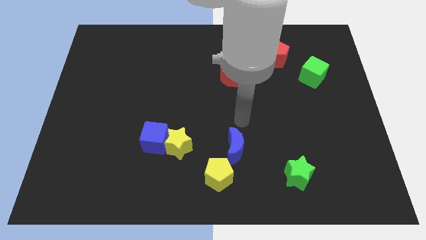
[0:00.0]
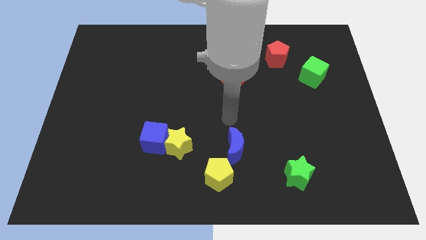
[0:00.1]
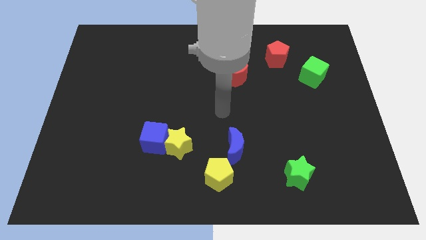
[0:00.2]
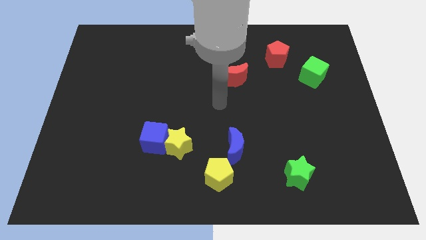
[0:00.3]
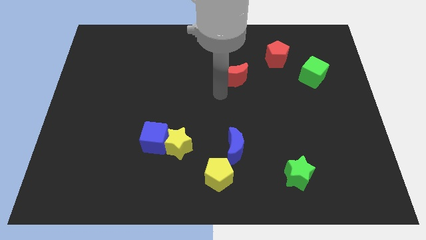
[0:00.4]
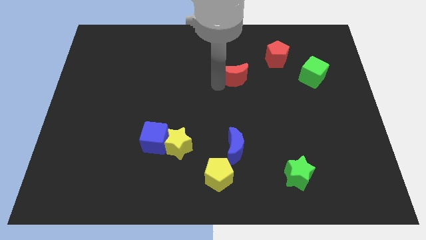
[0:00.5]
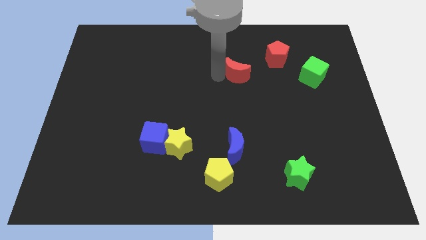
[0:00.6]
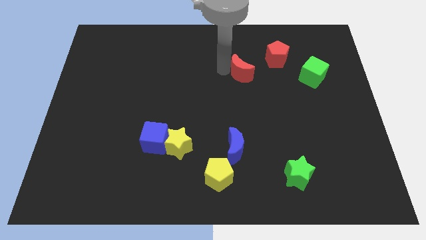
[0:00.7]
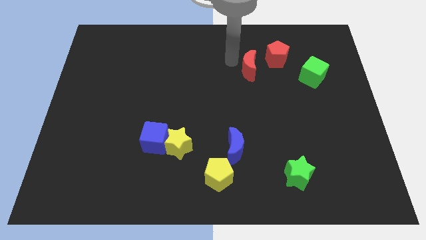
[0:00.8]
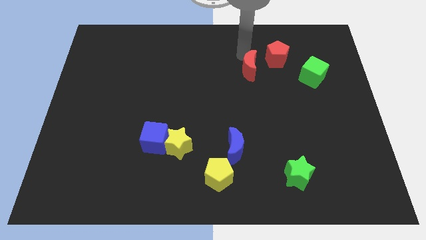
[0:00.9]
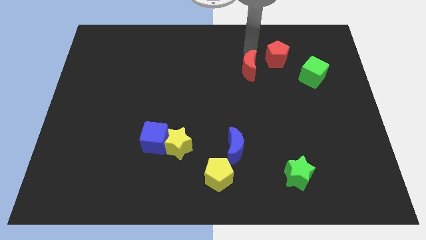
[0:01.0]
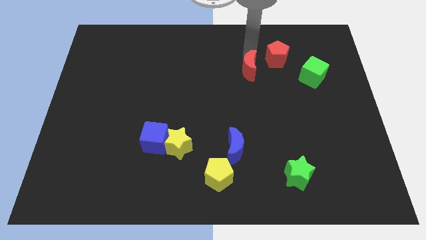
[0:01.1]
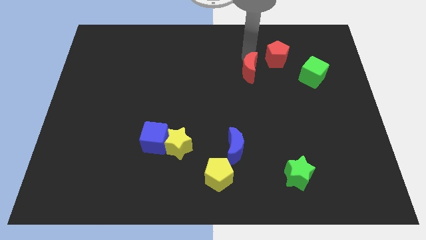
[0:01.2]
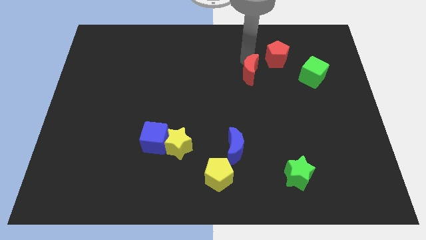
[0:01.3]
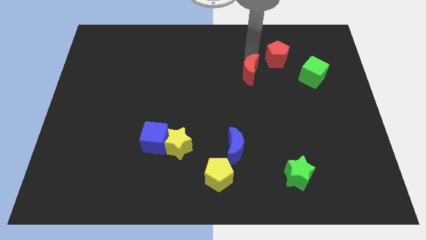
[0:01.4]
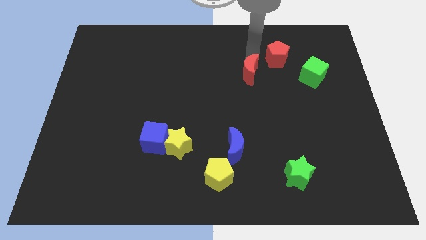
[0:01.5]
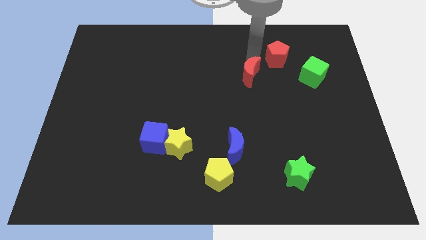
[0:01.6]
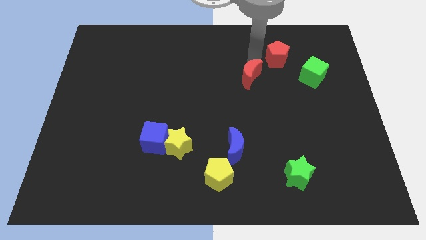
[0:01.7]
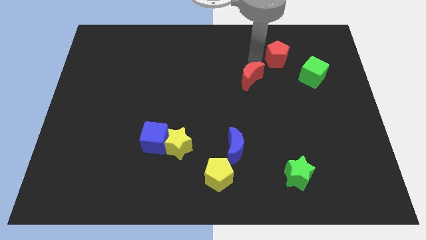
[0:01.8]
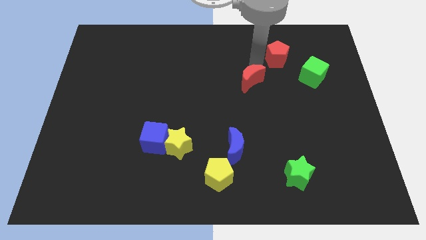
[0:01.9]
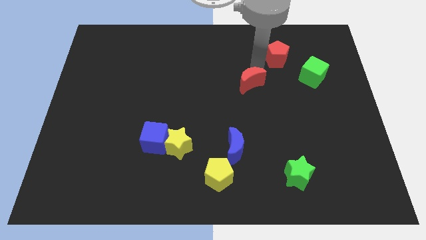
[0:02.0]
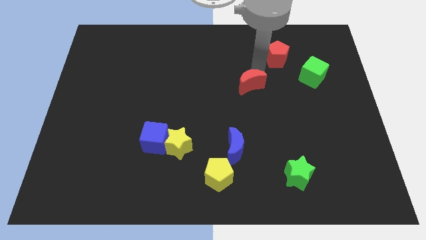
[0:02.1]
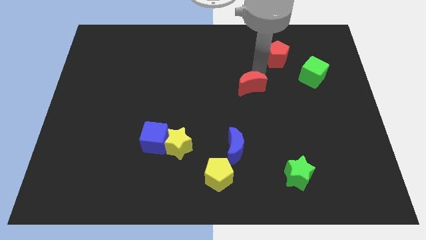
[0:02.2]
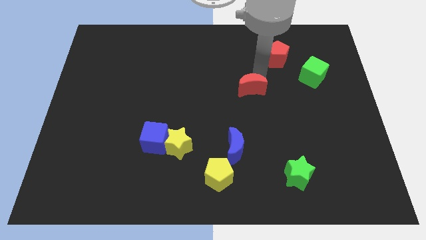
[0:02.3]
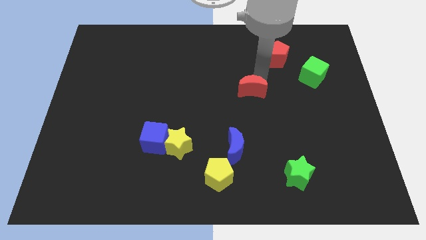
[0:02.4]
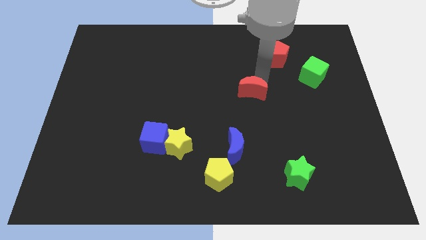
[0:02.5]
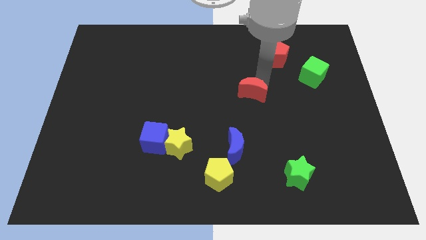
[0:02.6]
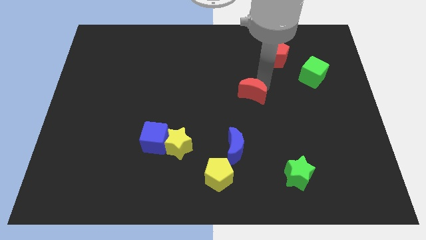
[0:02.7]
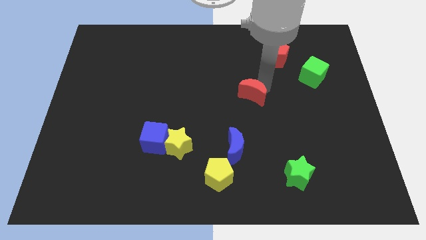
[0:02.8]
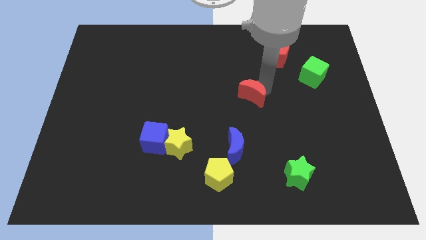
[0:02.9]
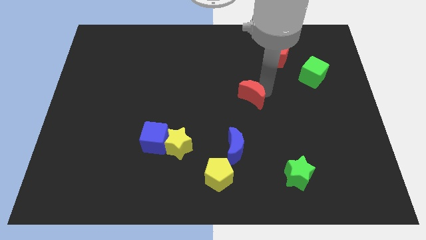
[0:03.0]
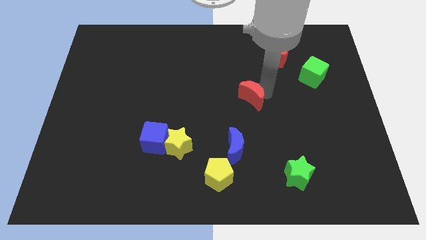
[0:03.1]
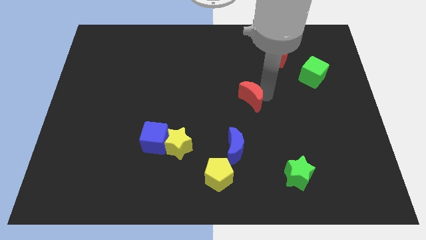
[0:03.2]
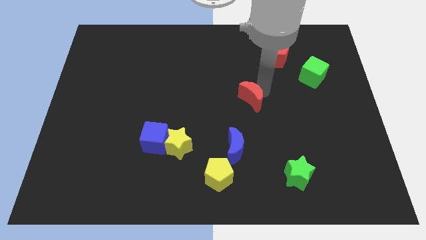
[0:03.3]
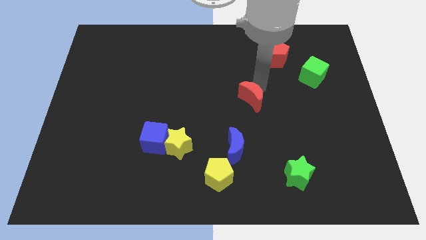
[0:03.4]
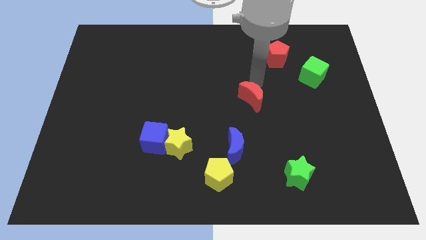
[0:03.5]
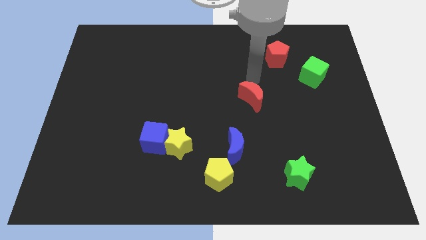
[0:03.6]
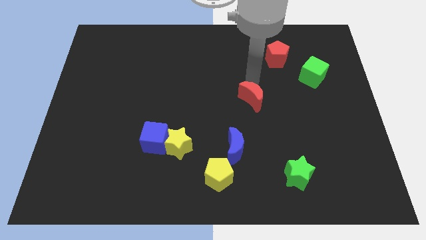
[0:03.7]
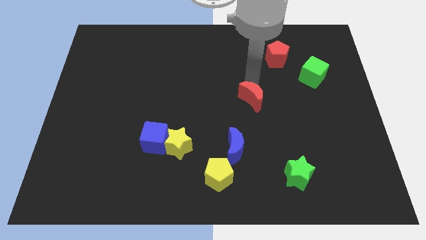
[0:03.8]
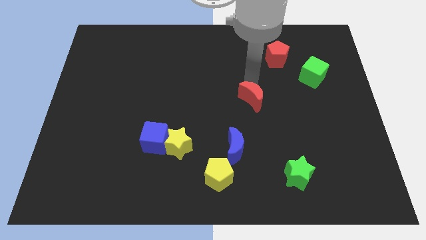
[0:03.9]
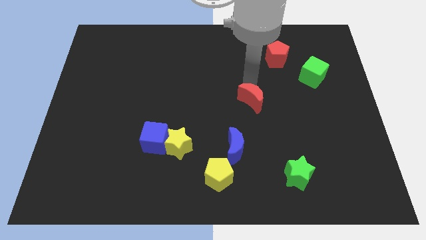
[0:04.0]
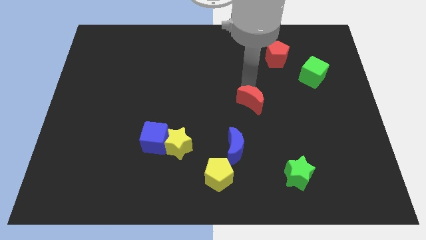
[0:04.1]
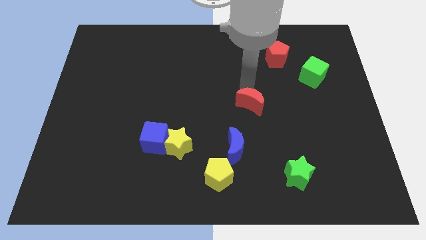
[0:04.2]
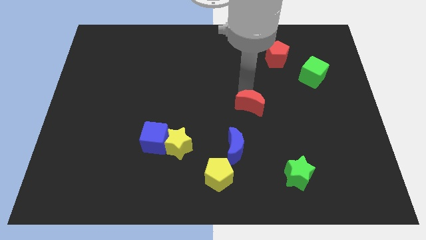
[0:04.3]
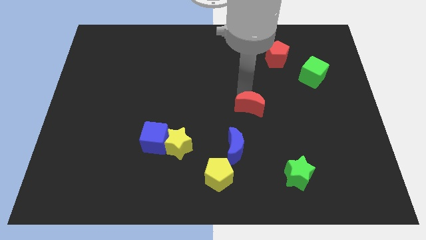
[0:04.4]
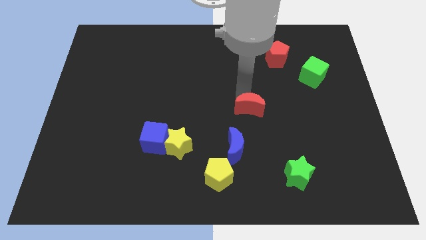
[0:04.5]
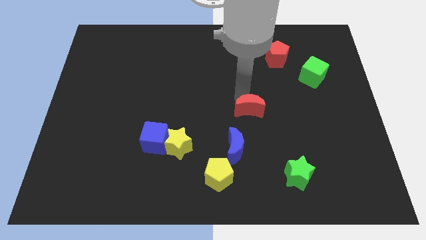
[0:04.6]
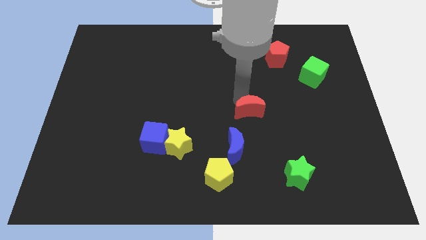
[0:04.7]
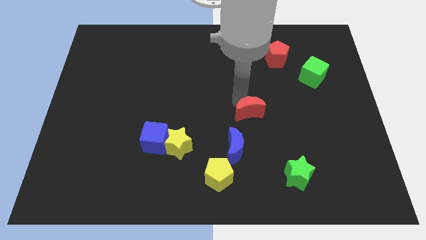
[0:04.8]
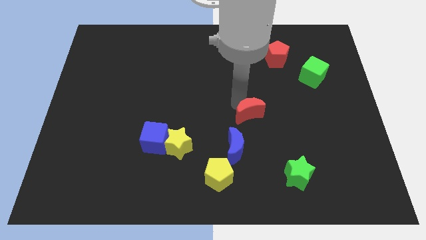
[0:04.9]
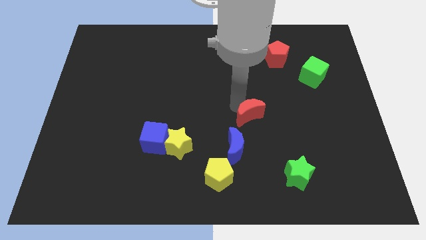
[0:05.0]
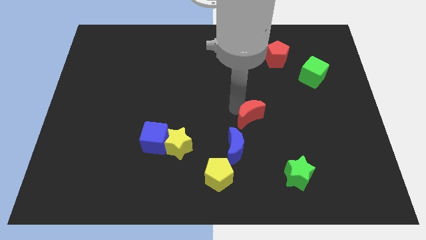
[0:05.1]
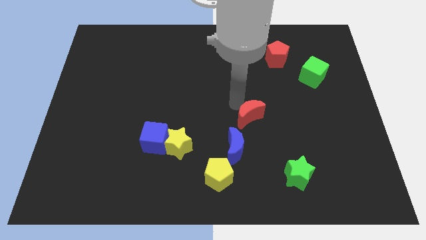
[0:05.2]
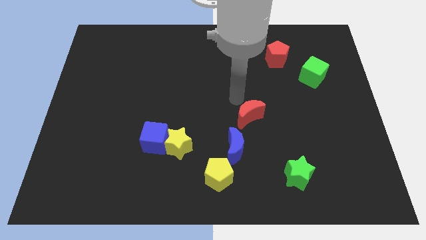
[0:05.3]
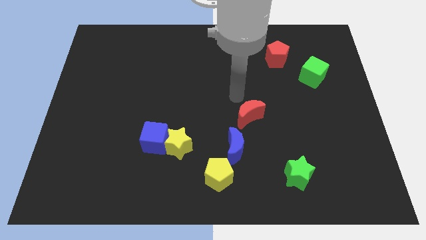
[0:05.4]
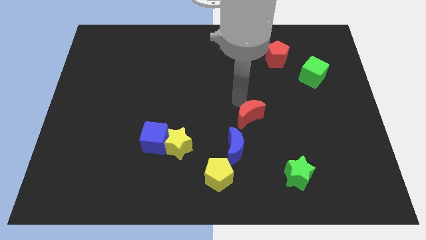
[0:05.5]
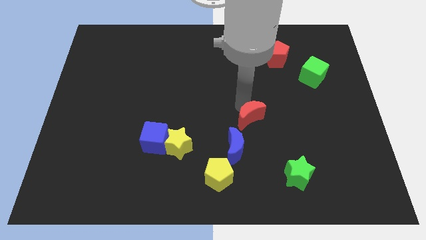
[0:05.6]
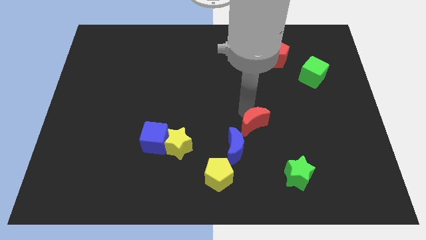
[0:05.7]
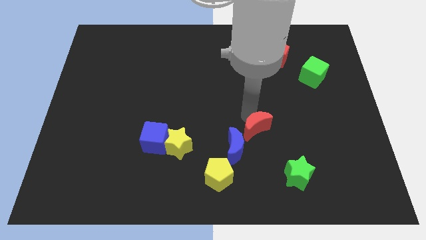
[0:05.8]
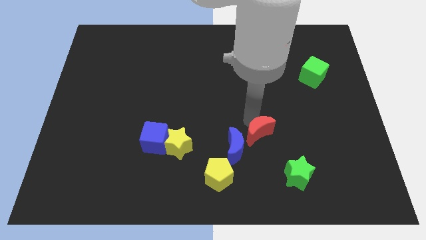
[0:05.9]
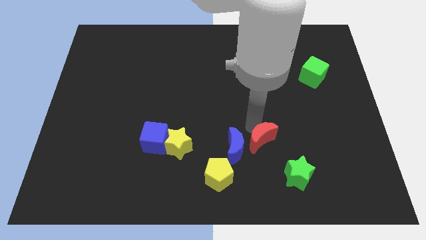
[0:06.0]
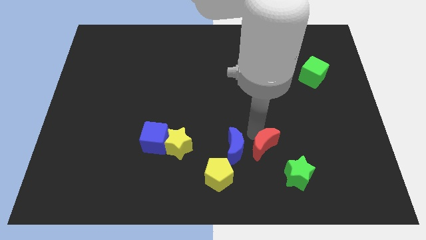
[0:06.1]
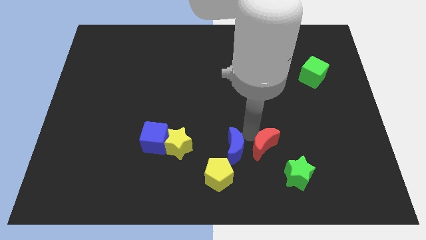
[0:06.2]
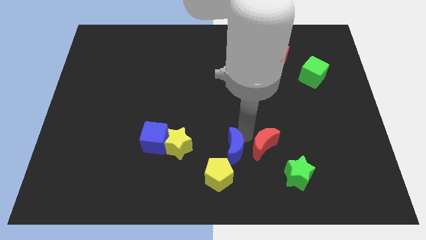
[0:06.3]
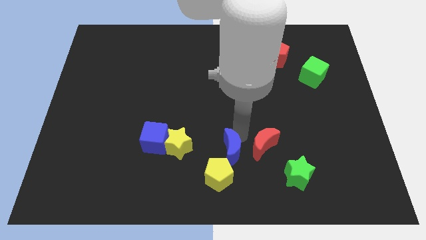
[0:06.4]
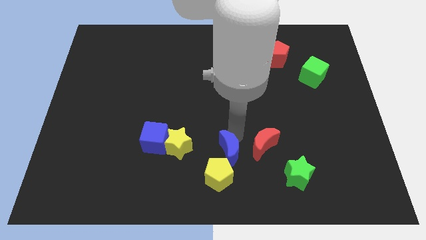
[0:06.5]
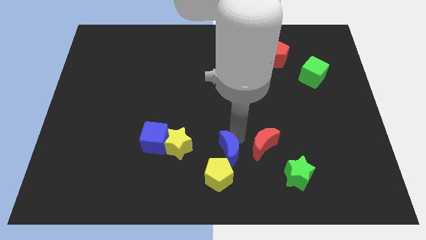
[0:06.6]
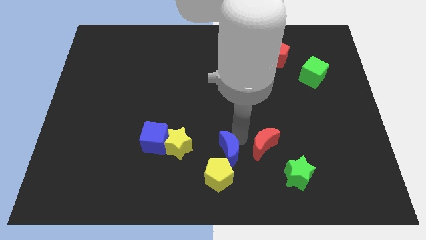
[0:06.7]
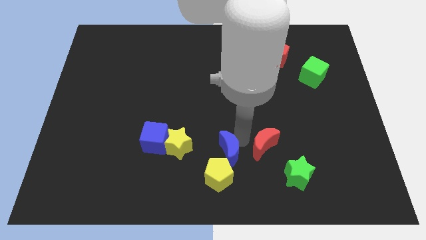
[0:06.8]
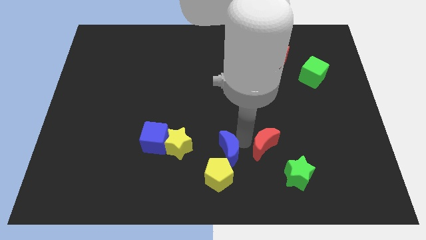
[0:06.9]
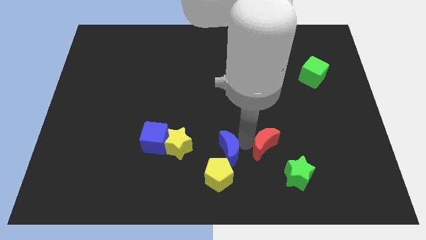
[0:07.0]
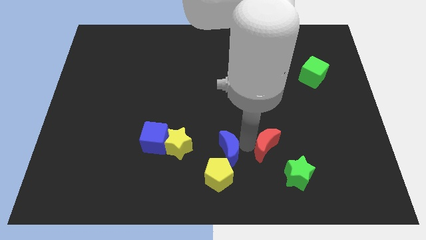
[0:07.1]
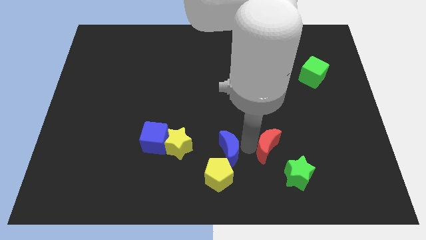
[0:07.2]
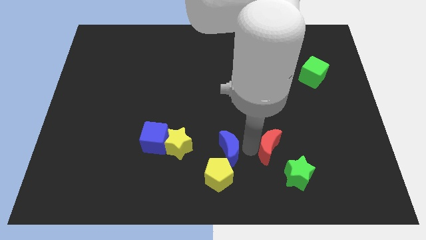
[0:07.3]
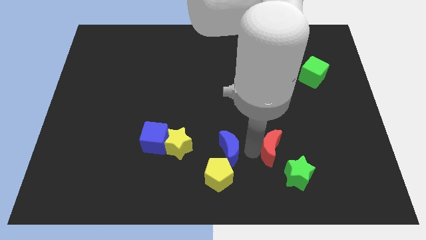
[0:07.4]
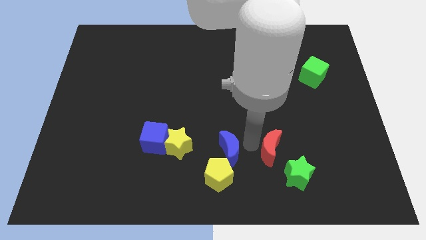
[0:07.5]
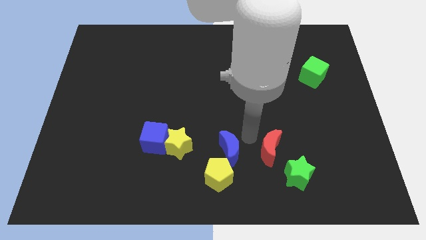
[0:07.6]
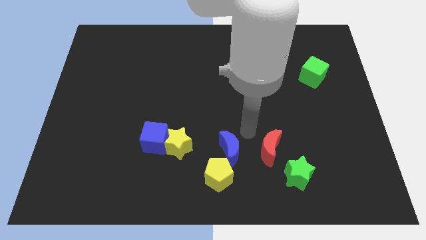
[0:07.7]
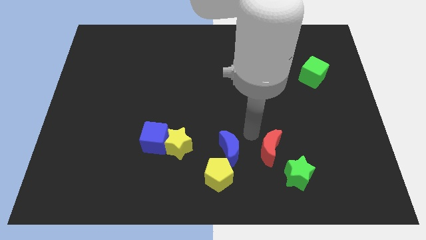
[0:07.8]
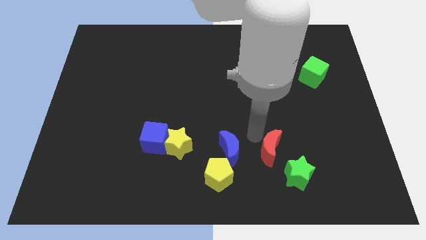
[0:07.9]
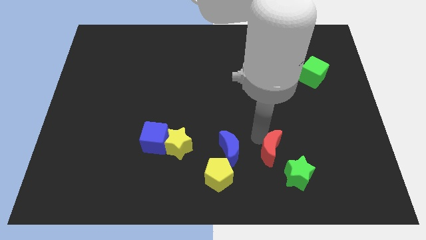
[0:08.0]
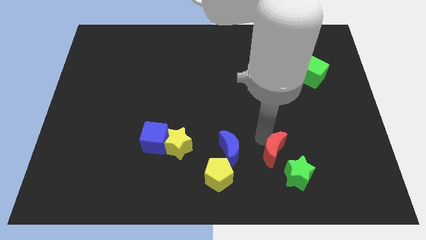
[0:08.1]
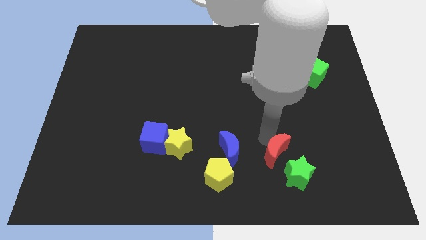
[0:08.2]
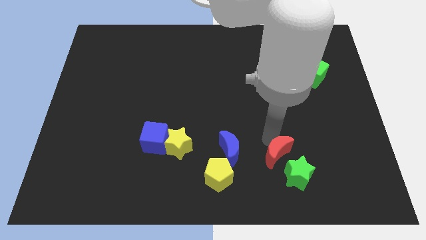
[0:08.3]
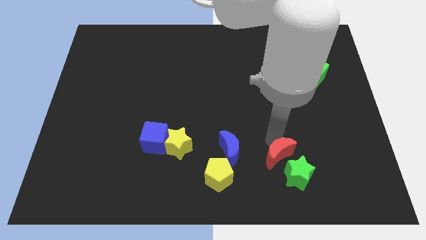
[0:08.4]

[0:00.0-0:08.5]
move the red moon close to the green star
